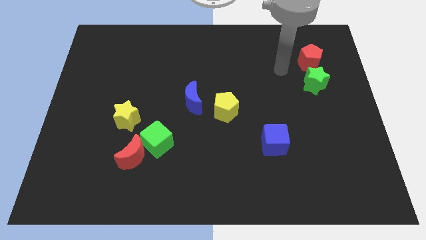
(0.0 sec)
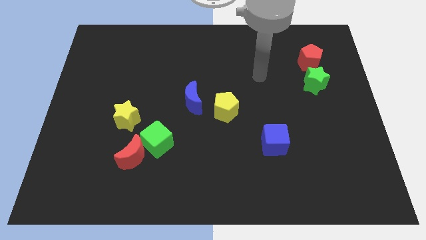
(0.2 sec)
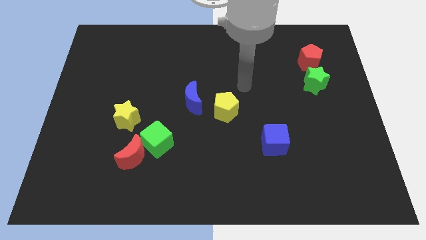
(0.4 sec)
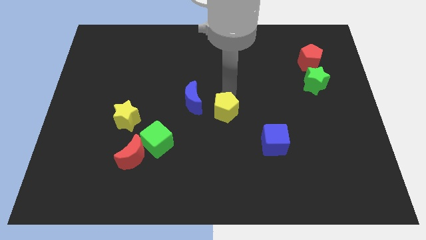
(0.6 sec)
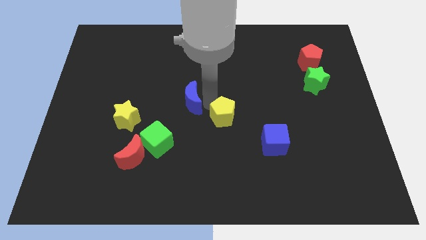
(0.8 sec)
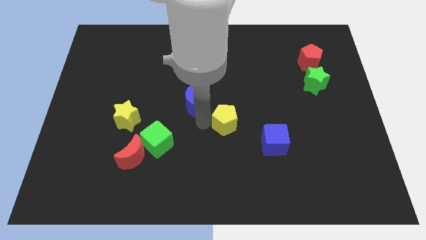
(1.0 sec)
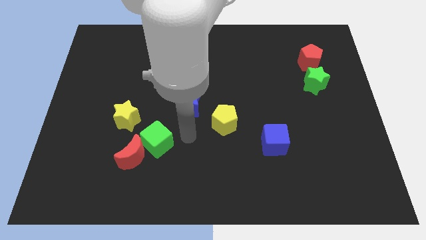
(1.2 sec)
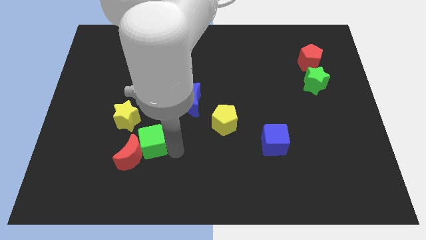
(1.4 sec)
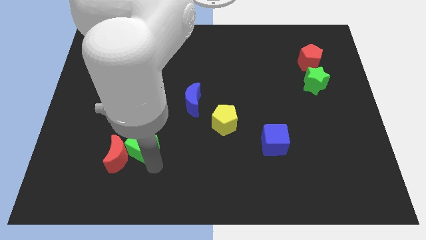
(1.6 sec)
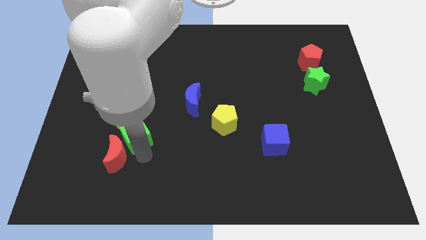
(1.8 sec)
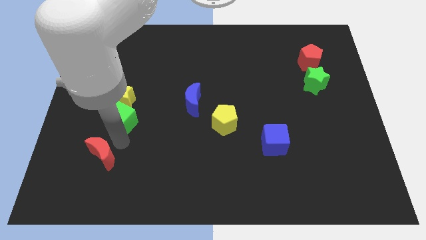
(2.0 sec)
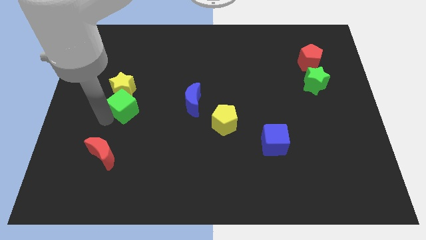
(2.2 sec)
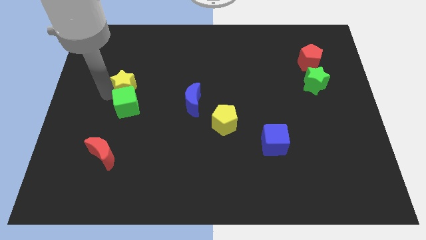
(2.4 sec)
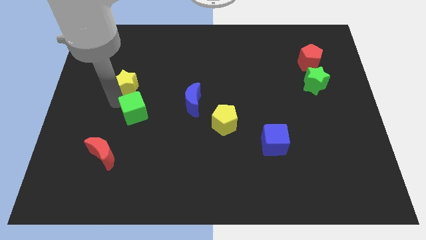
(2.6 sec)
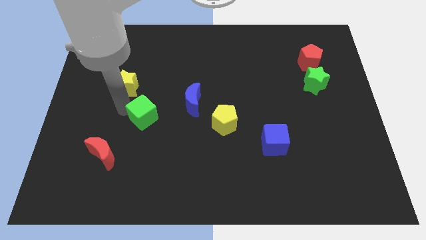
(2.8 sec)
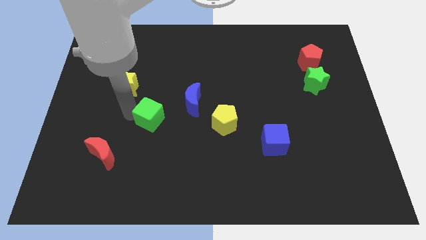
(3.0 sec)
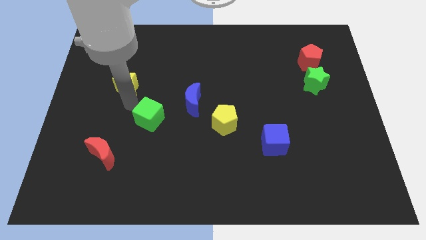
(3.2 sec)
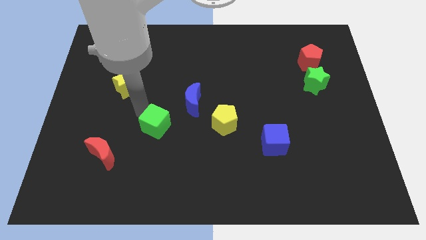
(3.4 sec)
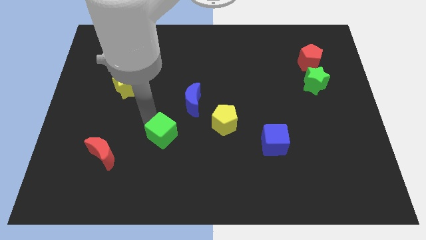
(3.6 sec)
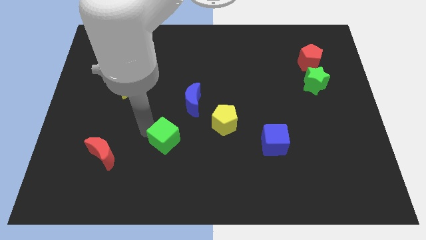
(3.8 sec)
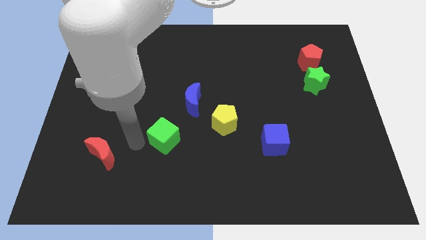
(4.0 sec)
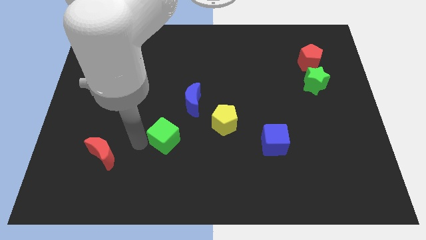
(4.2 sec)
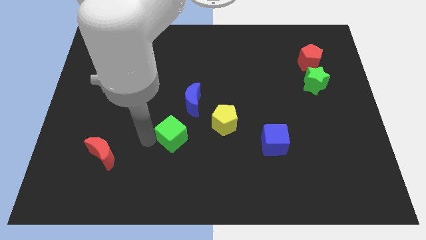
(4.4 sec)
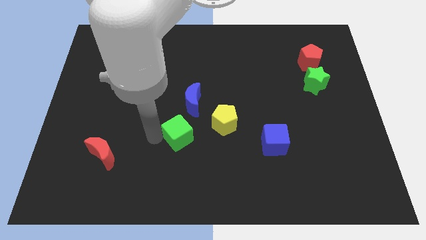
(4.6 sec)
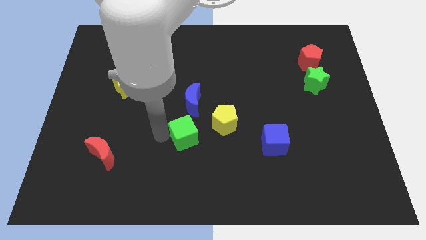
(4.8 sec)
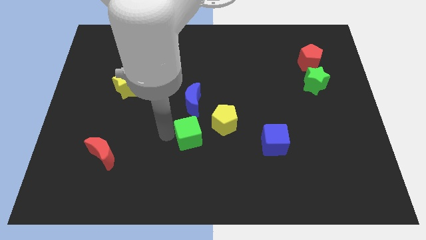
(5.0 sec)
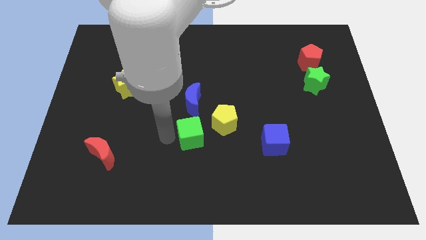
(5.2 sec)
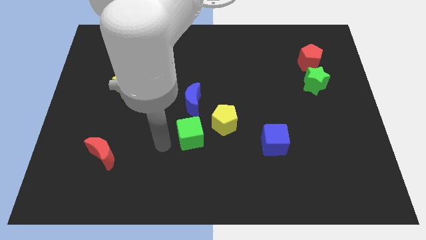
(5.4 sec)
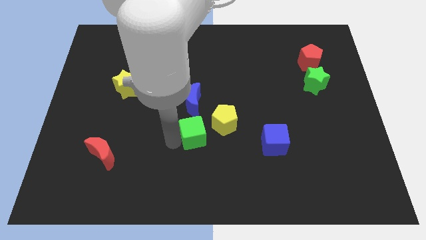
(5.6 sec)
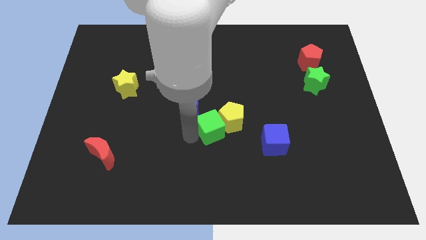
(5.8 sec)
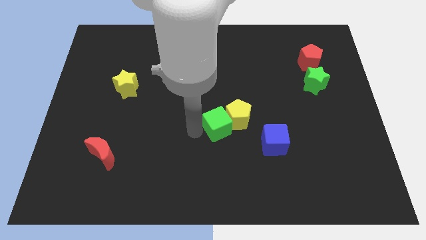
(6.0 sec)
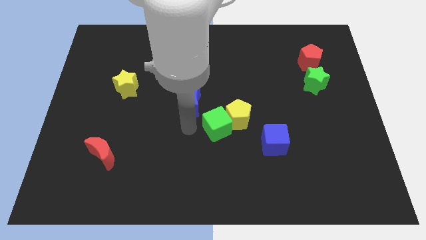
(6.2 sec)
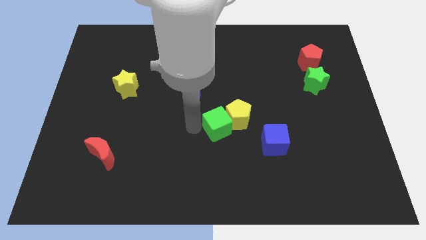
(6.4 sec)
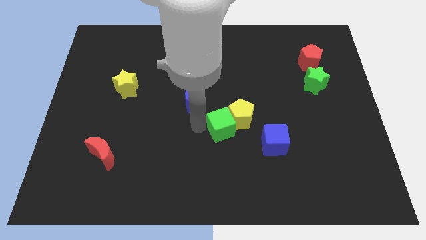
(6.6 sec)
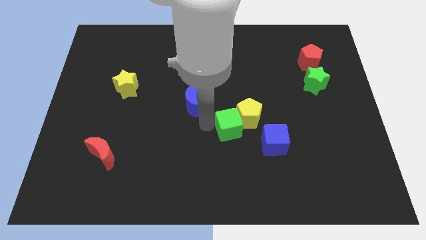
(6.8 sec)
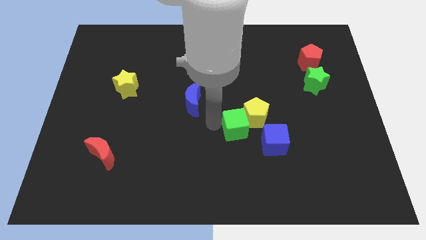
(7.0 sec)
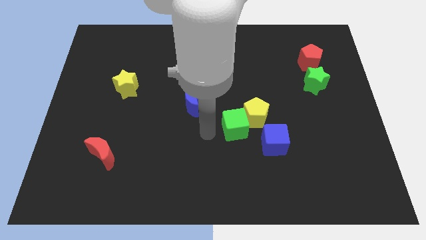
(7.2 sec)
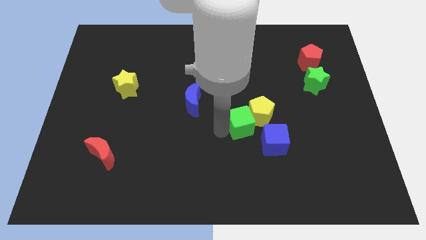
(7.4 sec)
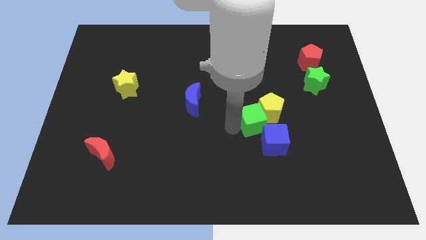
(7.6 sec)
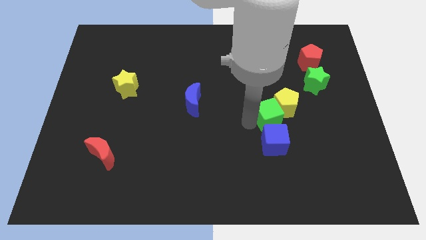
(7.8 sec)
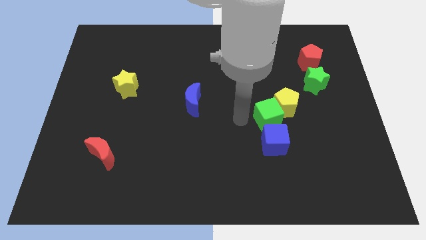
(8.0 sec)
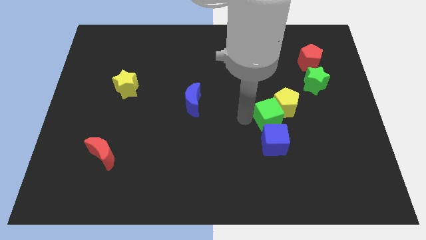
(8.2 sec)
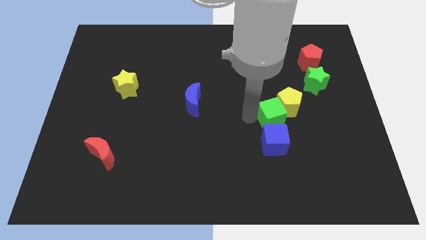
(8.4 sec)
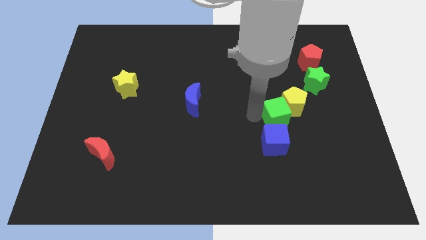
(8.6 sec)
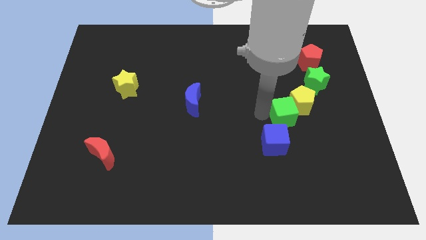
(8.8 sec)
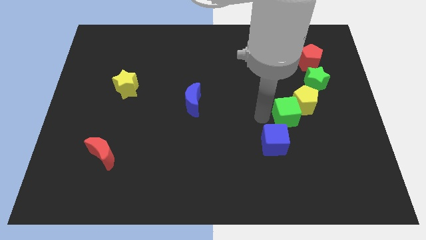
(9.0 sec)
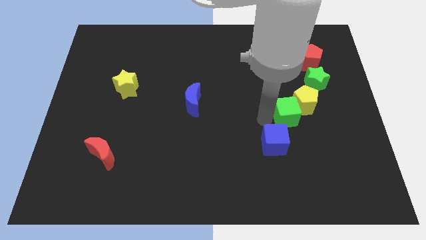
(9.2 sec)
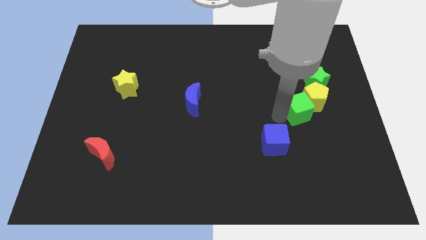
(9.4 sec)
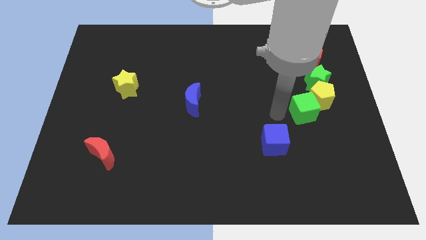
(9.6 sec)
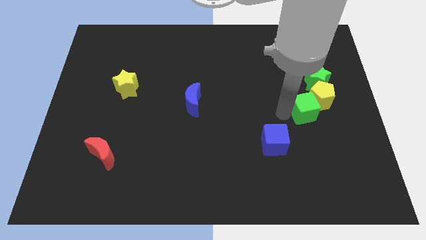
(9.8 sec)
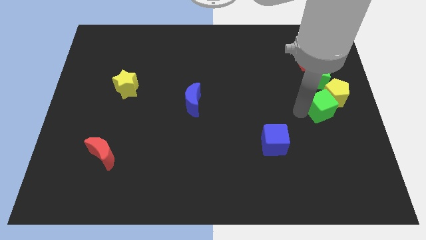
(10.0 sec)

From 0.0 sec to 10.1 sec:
push the green cube to the center right

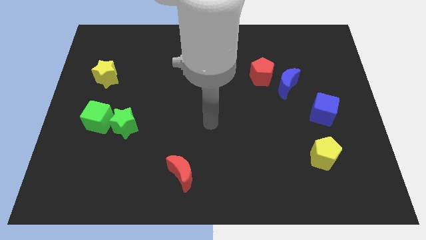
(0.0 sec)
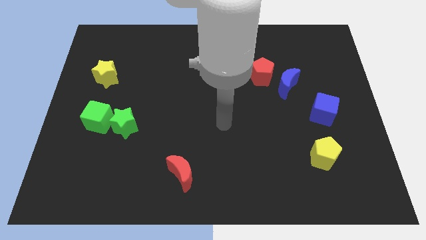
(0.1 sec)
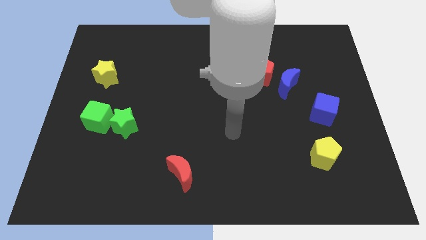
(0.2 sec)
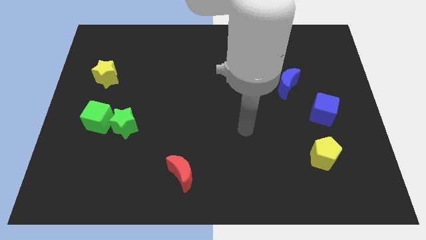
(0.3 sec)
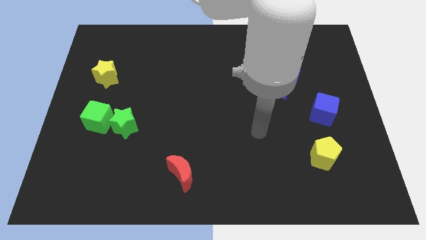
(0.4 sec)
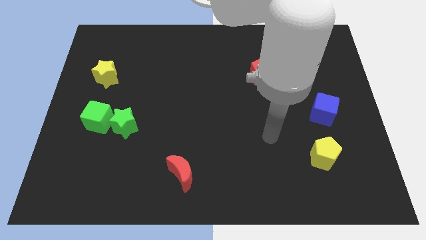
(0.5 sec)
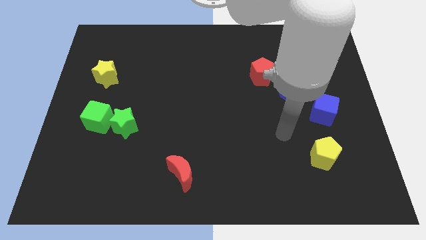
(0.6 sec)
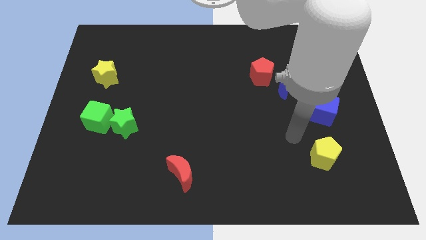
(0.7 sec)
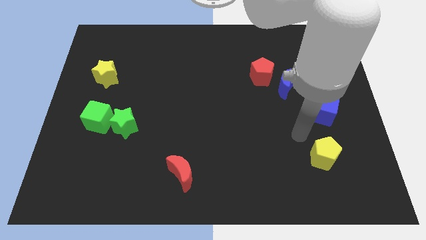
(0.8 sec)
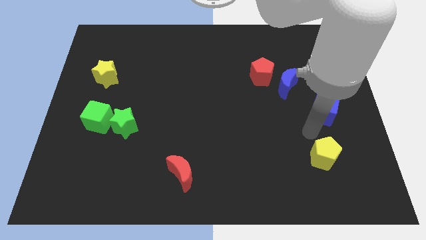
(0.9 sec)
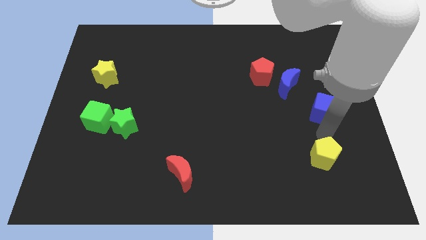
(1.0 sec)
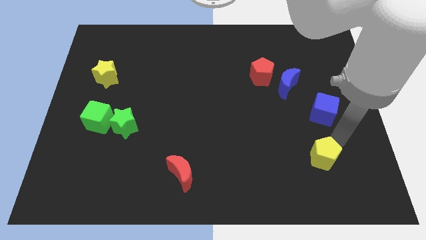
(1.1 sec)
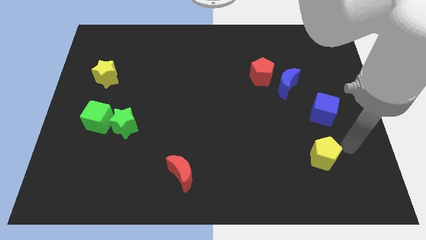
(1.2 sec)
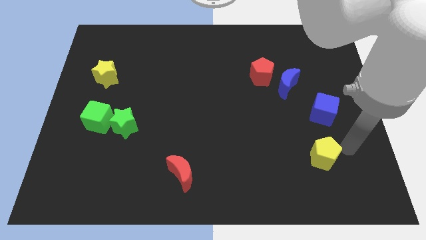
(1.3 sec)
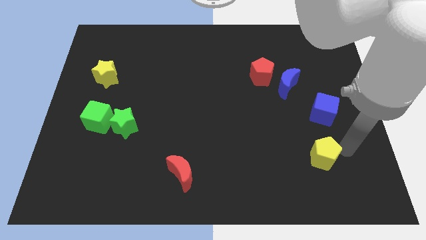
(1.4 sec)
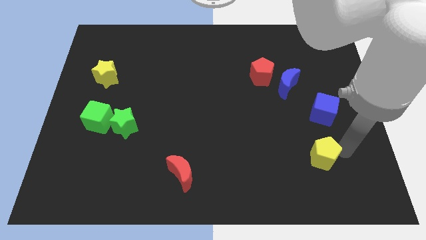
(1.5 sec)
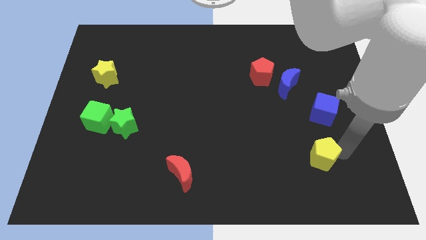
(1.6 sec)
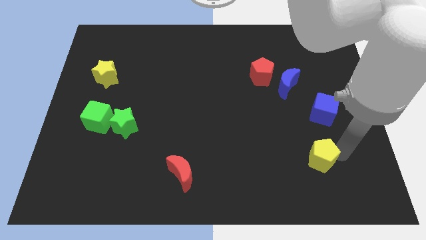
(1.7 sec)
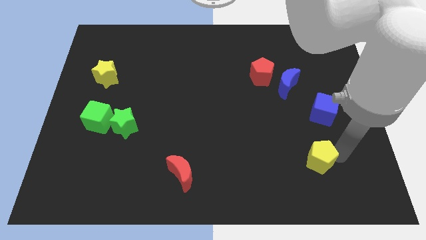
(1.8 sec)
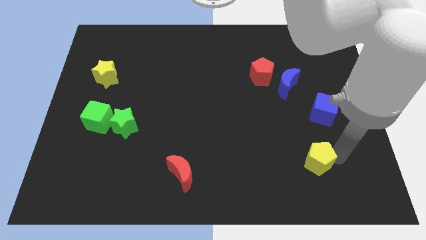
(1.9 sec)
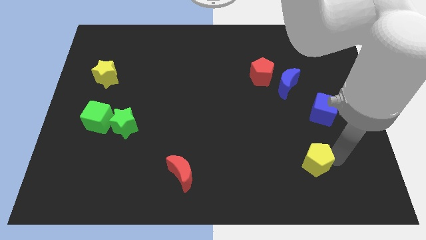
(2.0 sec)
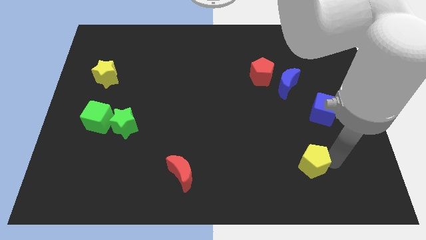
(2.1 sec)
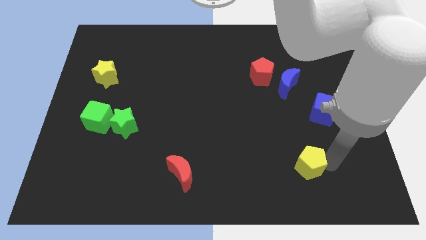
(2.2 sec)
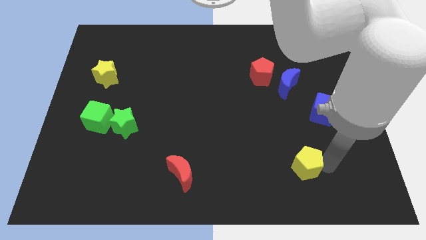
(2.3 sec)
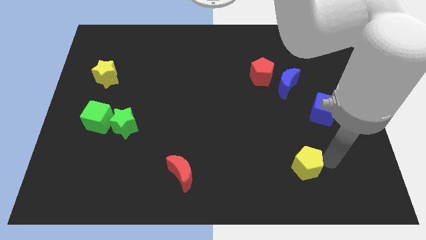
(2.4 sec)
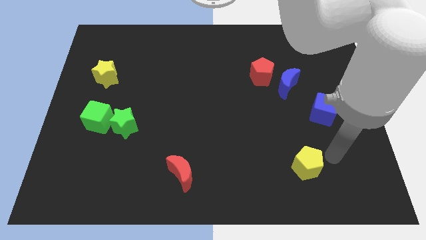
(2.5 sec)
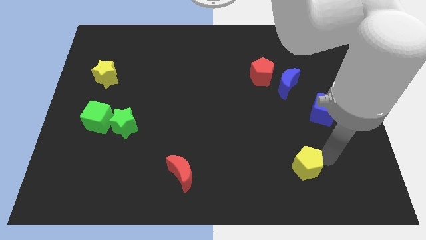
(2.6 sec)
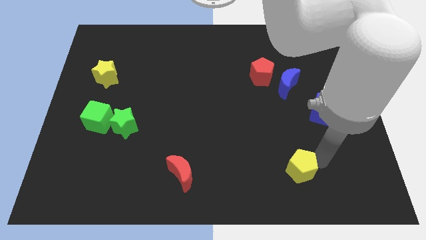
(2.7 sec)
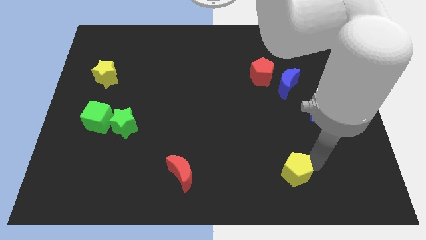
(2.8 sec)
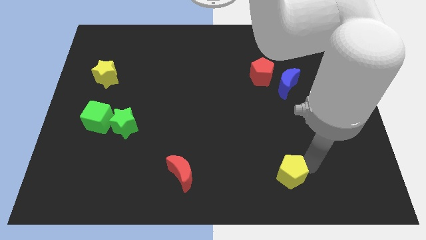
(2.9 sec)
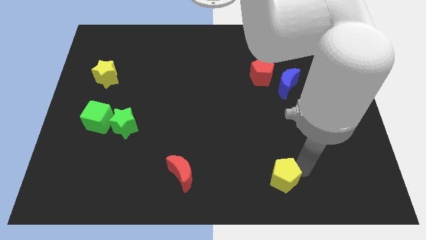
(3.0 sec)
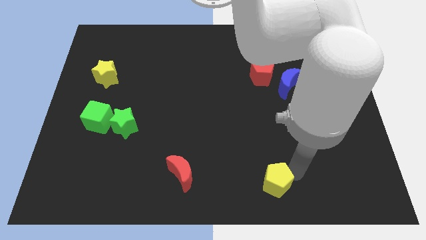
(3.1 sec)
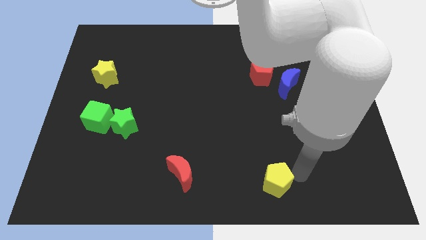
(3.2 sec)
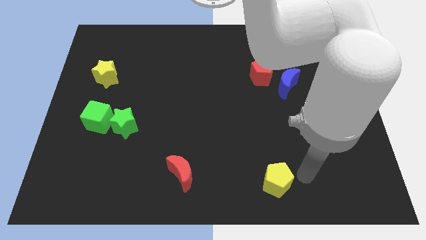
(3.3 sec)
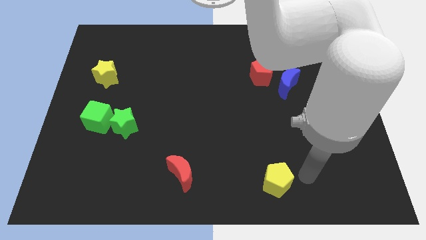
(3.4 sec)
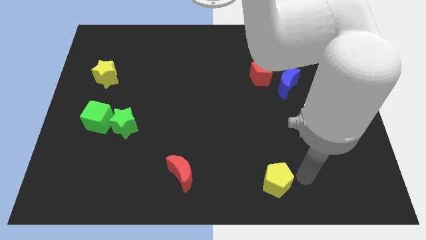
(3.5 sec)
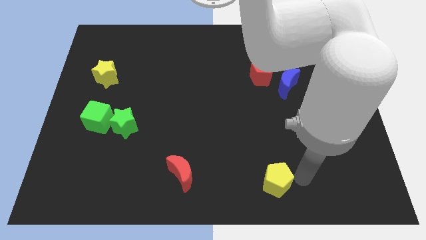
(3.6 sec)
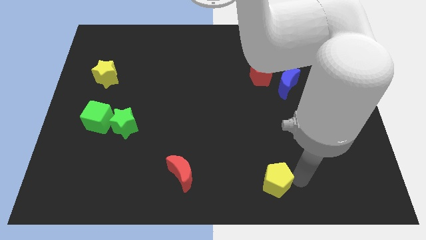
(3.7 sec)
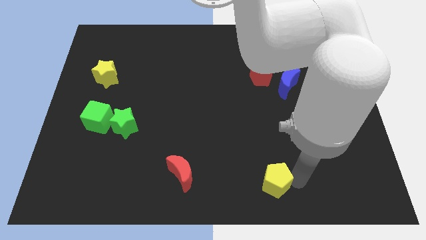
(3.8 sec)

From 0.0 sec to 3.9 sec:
put the yellow pentagon to the bottom side
